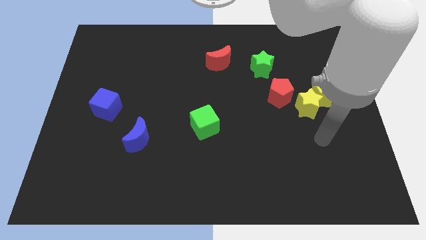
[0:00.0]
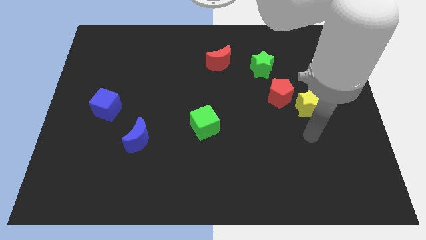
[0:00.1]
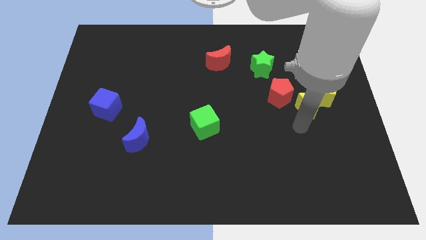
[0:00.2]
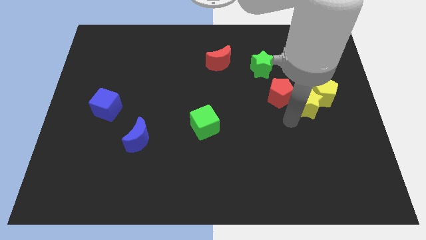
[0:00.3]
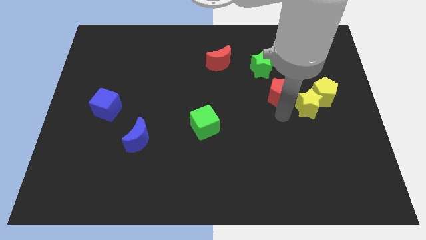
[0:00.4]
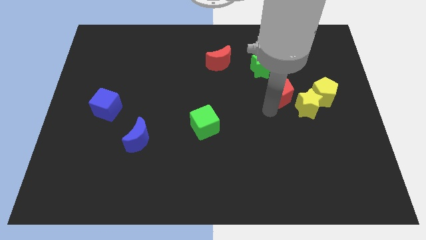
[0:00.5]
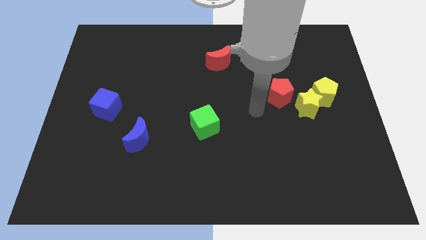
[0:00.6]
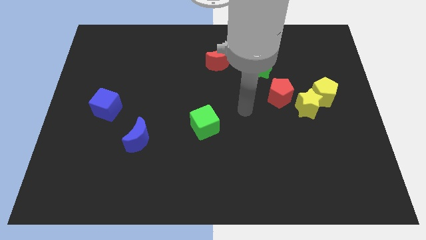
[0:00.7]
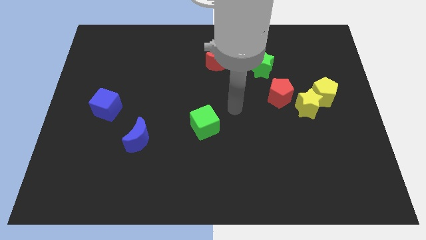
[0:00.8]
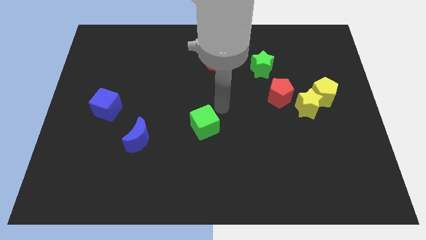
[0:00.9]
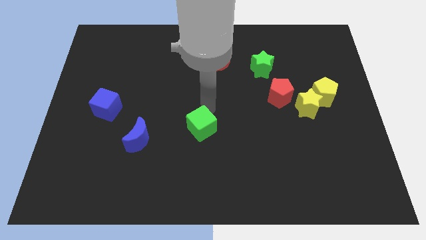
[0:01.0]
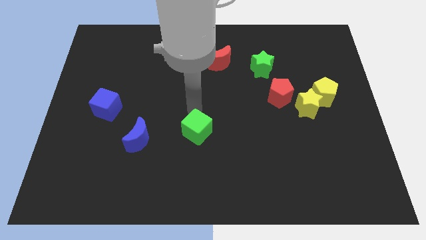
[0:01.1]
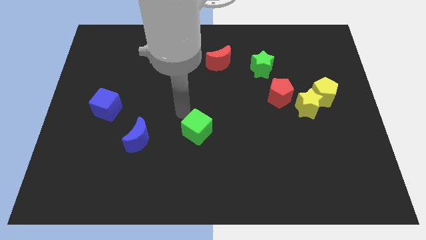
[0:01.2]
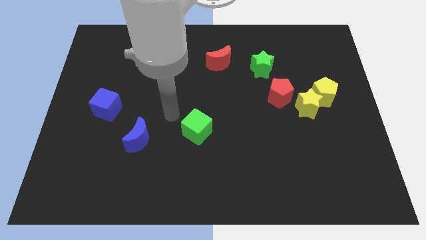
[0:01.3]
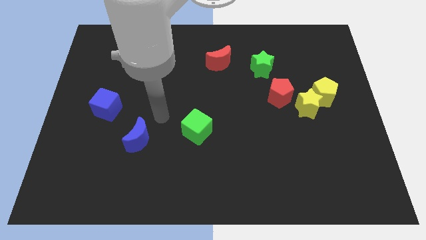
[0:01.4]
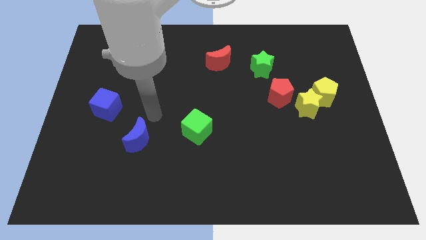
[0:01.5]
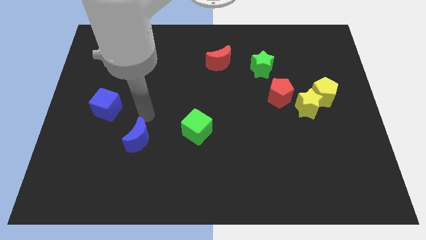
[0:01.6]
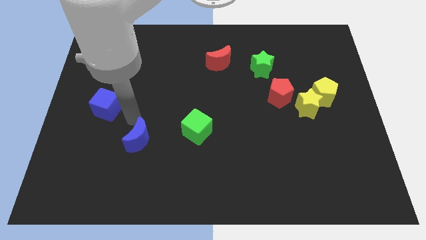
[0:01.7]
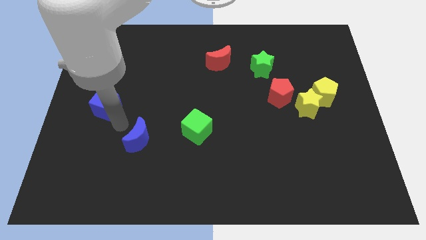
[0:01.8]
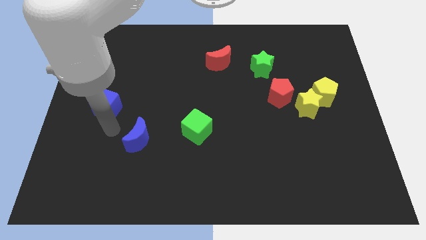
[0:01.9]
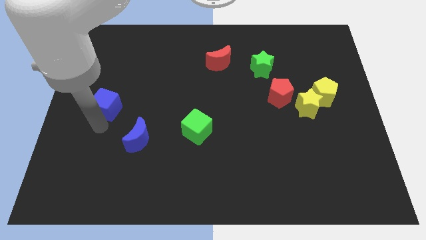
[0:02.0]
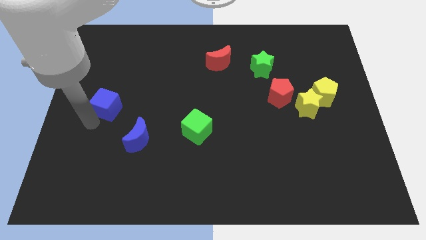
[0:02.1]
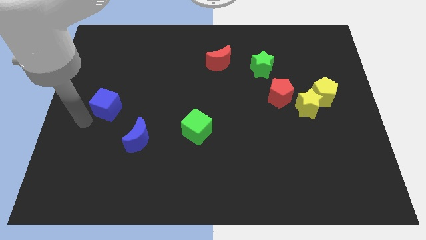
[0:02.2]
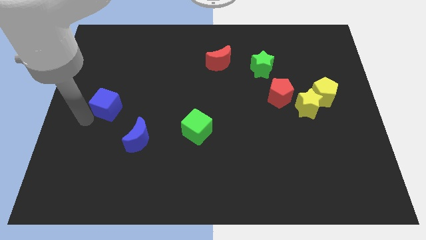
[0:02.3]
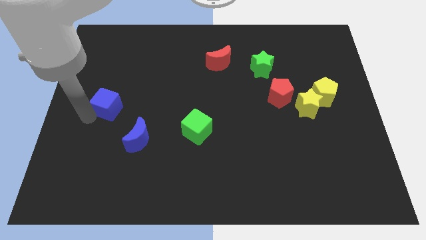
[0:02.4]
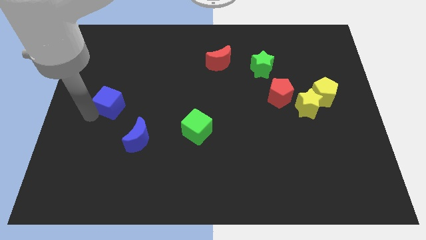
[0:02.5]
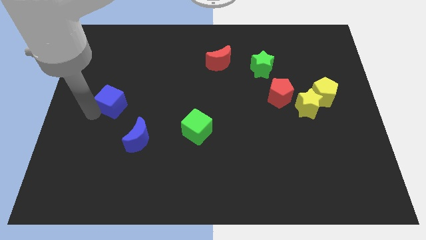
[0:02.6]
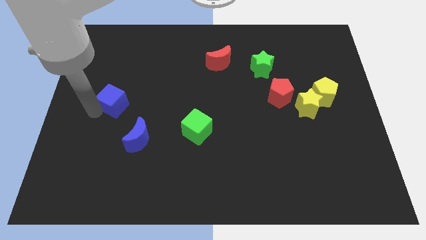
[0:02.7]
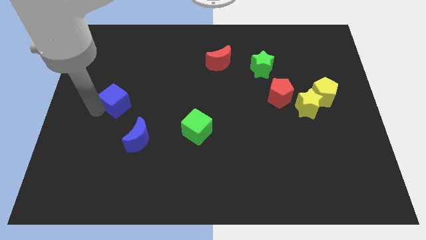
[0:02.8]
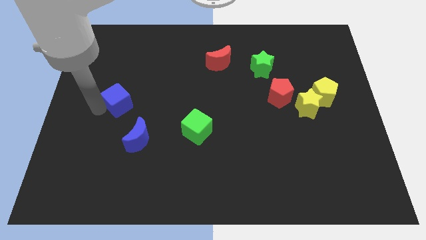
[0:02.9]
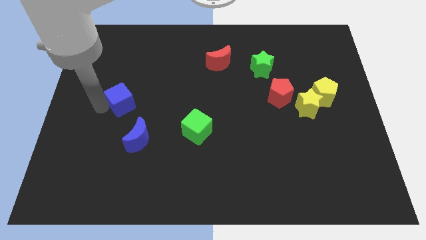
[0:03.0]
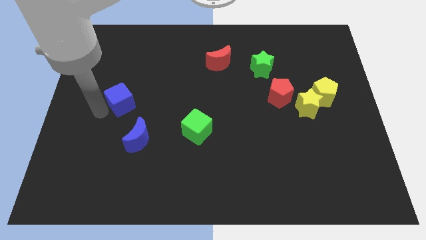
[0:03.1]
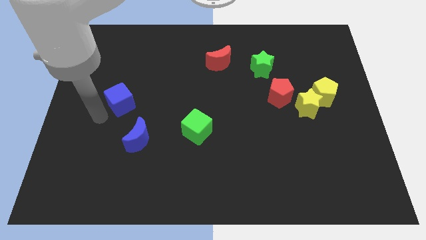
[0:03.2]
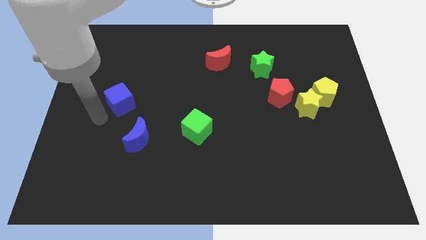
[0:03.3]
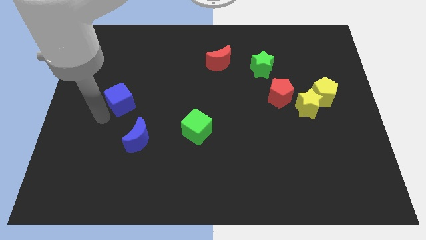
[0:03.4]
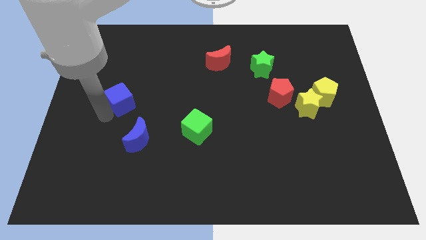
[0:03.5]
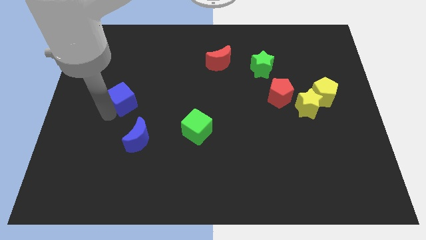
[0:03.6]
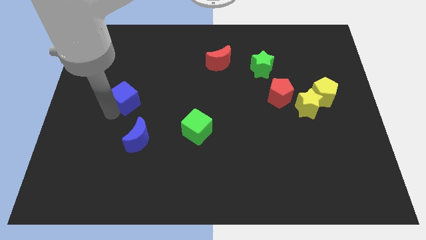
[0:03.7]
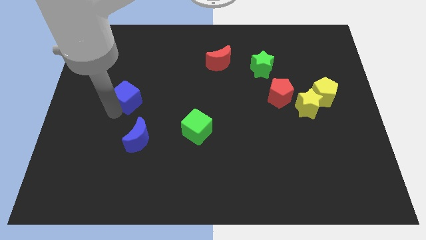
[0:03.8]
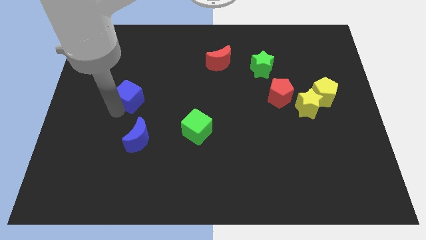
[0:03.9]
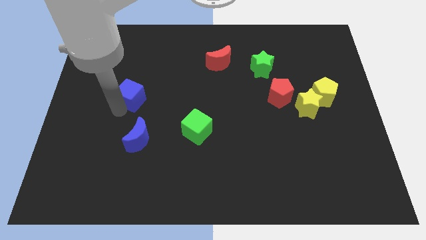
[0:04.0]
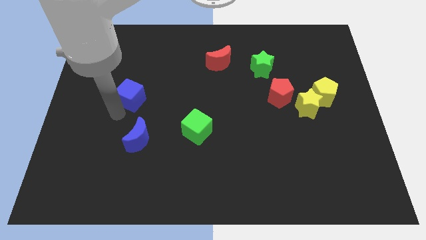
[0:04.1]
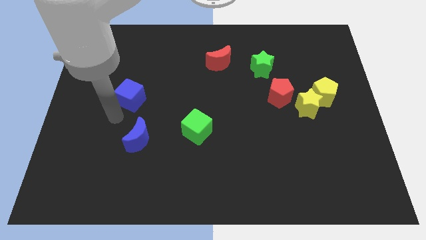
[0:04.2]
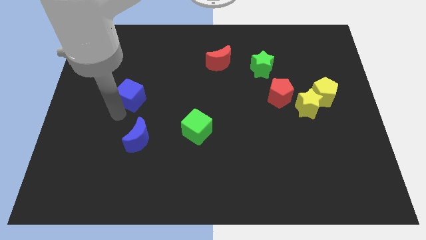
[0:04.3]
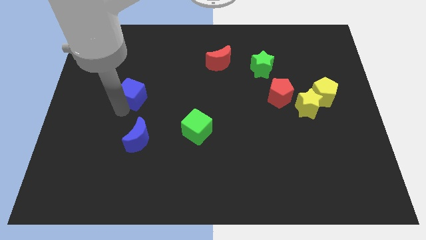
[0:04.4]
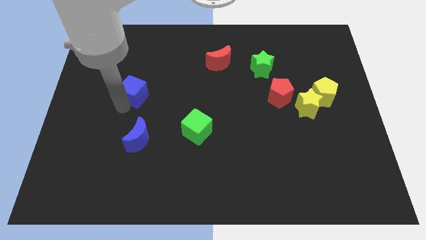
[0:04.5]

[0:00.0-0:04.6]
move the blue cube a little bit upwards and right diagonally

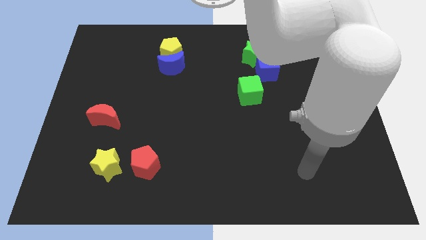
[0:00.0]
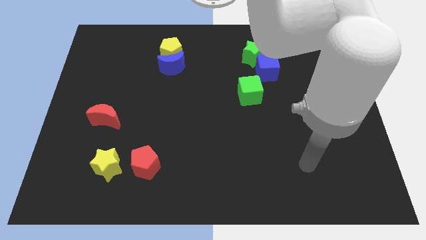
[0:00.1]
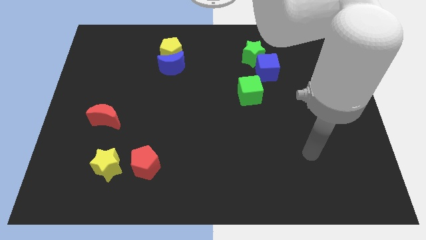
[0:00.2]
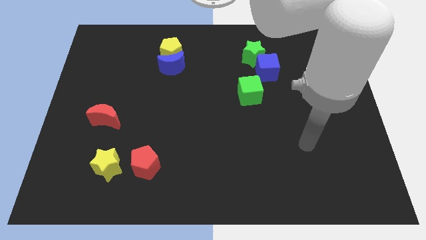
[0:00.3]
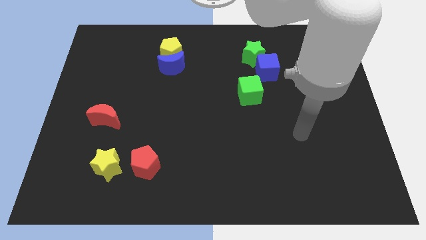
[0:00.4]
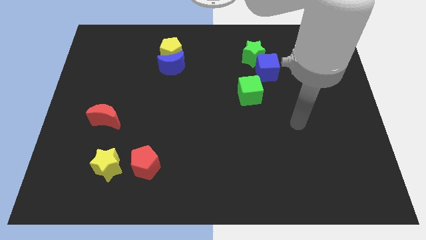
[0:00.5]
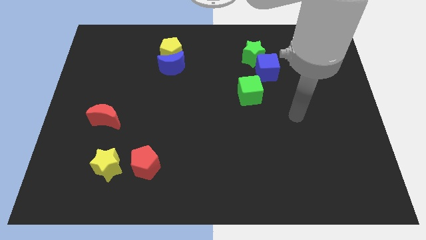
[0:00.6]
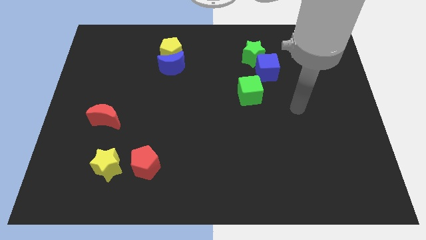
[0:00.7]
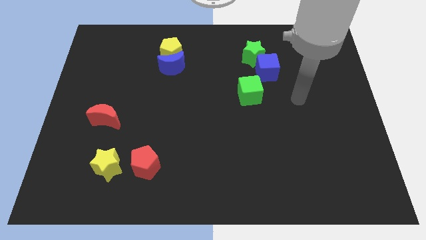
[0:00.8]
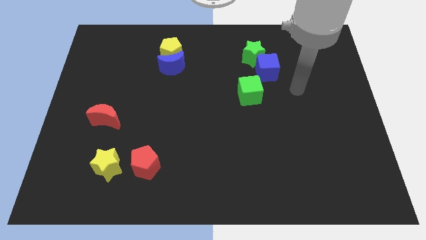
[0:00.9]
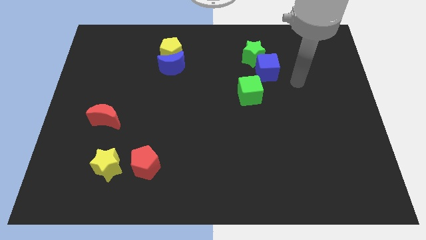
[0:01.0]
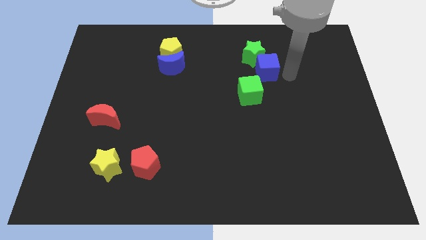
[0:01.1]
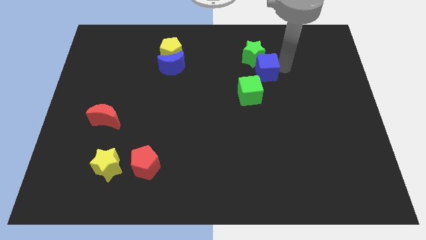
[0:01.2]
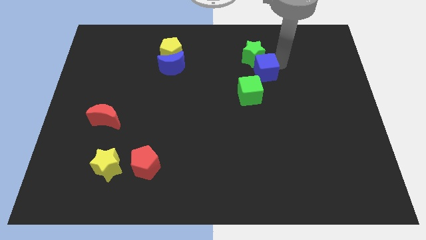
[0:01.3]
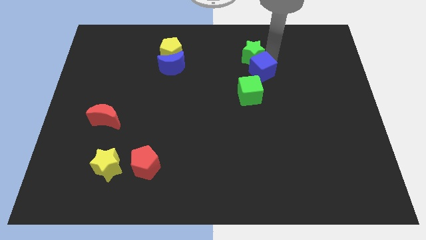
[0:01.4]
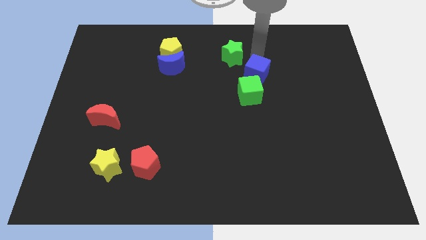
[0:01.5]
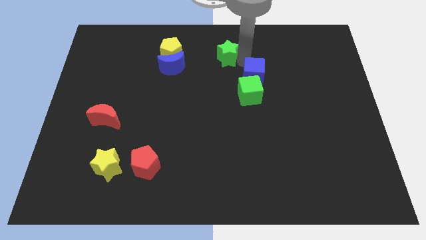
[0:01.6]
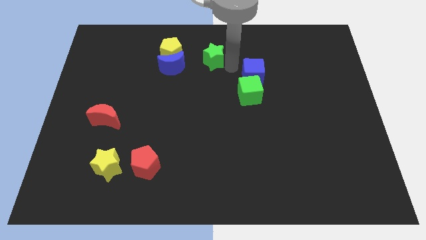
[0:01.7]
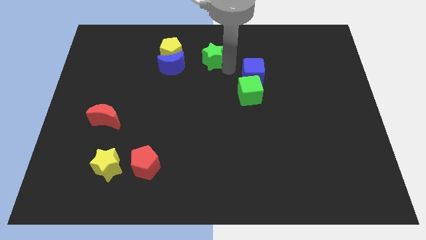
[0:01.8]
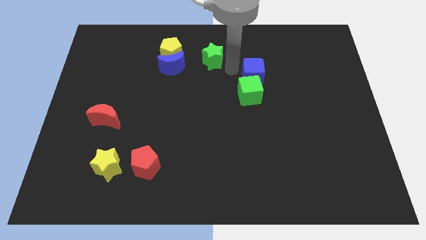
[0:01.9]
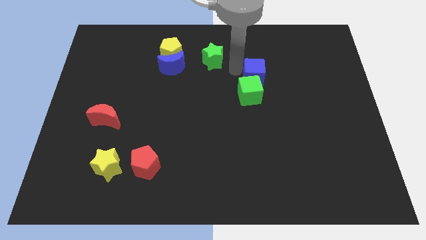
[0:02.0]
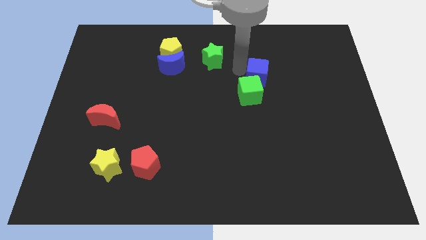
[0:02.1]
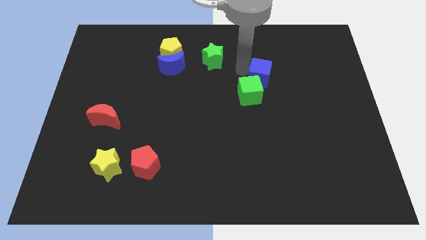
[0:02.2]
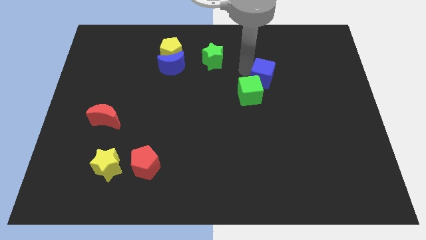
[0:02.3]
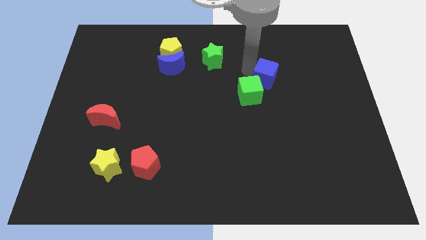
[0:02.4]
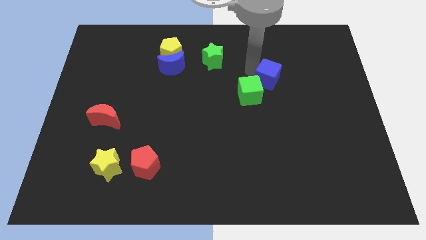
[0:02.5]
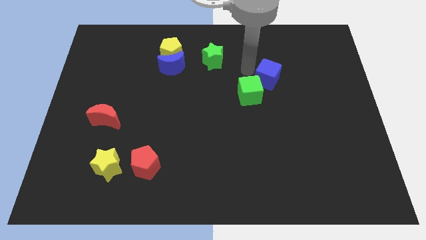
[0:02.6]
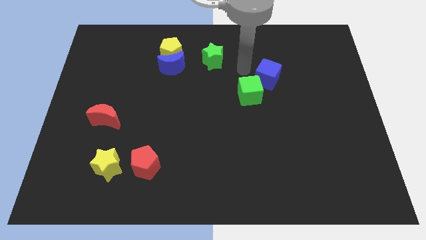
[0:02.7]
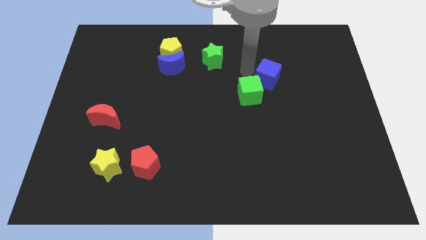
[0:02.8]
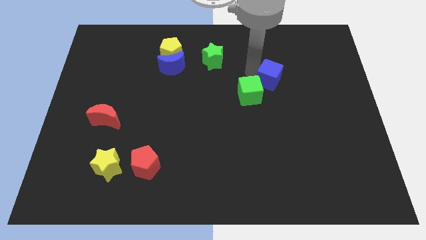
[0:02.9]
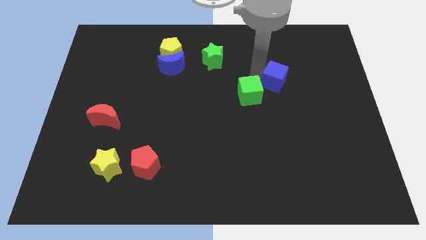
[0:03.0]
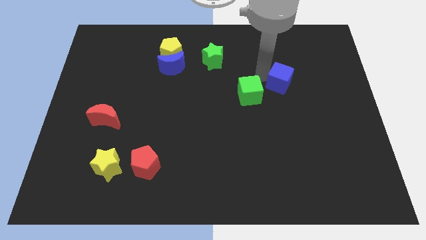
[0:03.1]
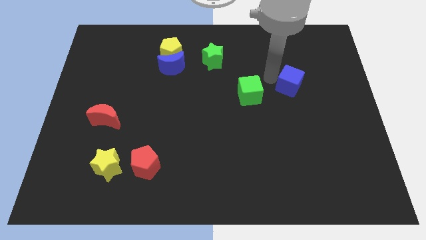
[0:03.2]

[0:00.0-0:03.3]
push the blue cube down and then right slightly

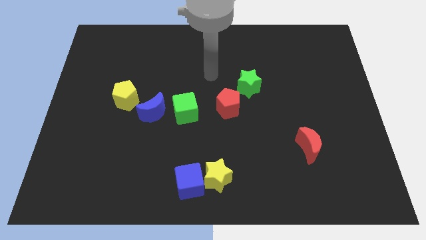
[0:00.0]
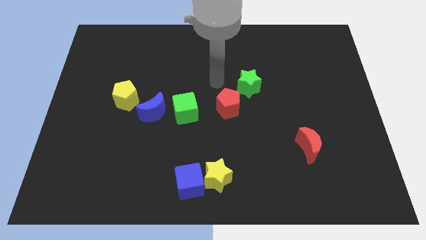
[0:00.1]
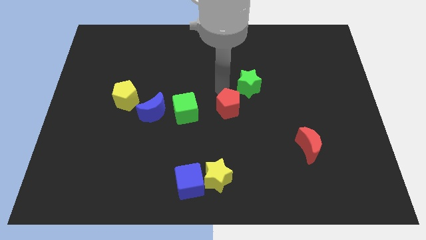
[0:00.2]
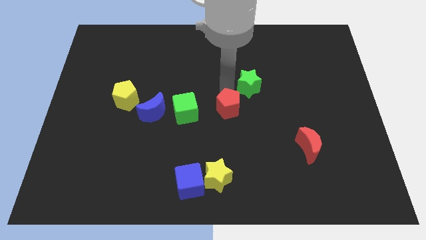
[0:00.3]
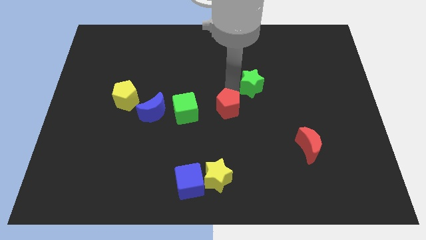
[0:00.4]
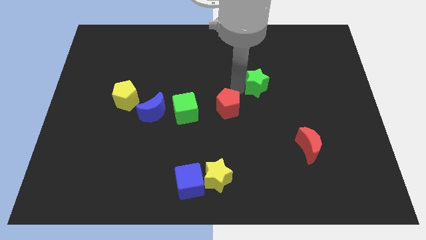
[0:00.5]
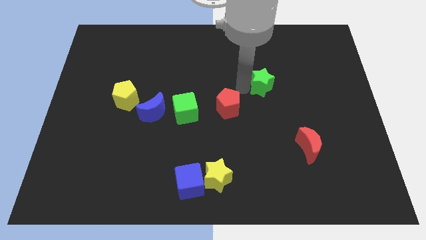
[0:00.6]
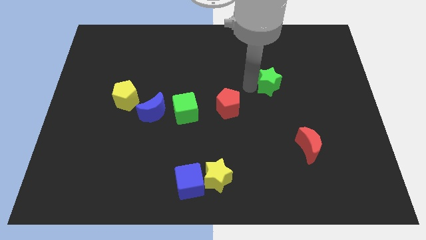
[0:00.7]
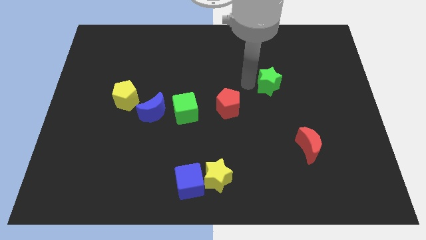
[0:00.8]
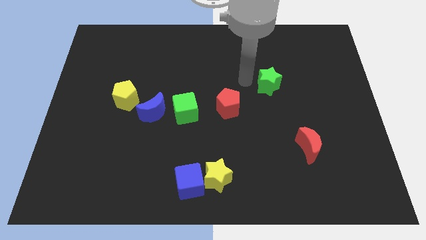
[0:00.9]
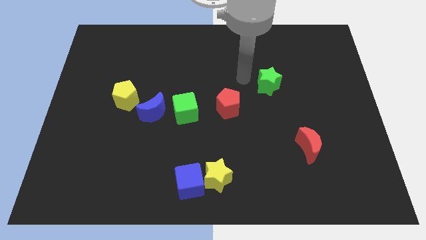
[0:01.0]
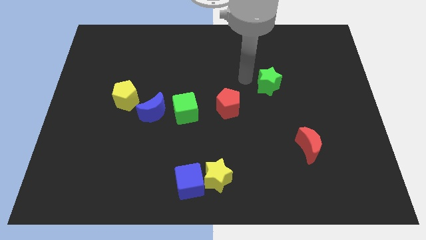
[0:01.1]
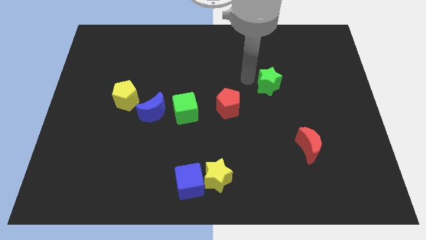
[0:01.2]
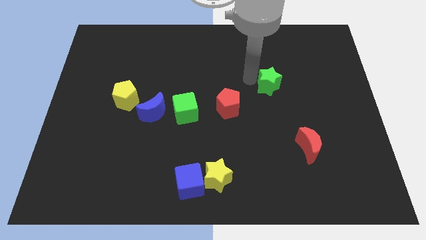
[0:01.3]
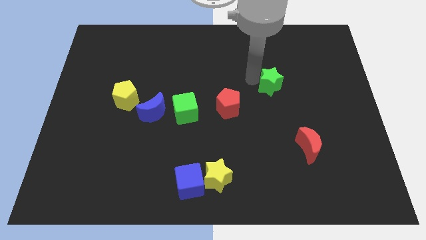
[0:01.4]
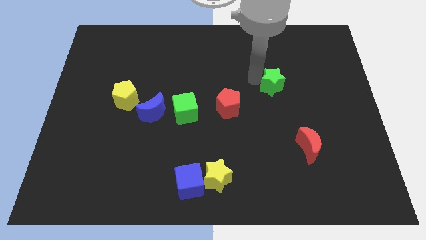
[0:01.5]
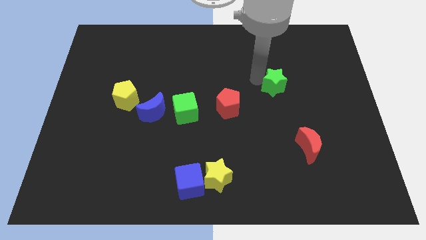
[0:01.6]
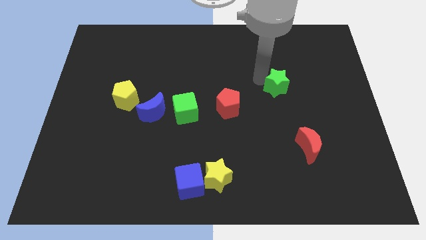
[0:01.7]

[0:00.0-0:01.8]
push the green star a little bit right
